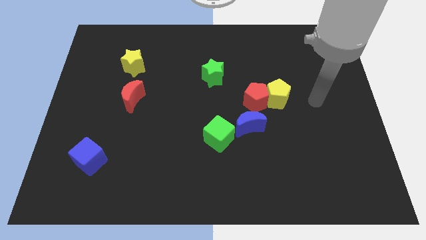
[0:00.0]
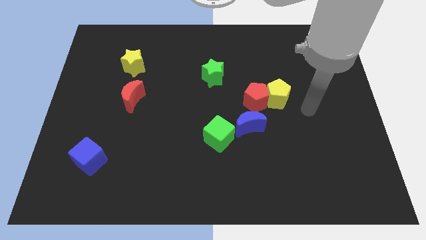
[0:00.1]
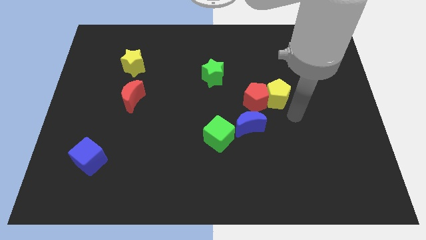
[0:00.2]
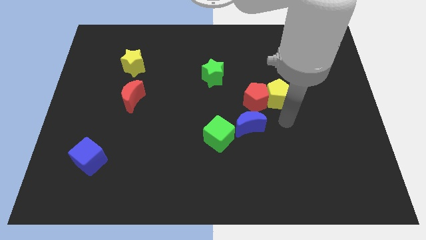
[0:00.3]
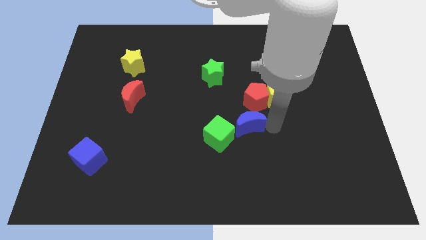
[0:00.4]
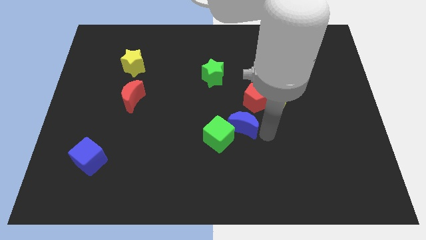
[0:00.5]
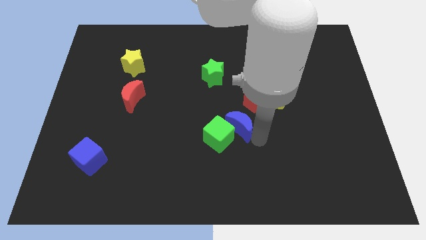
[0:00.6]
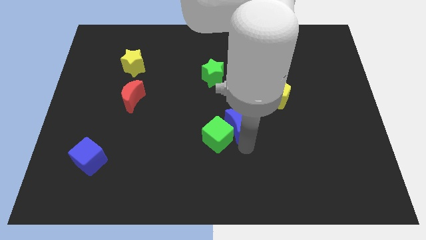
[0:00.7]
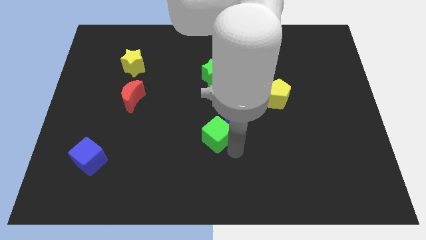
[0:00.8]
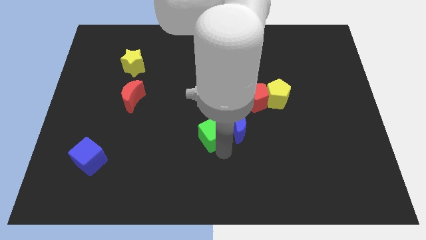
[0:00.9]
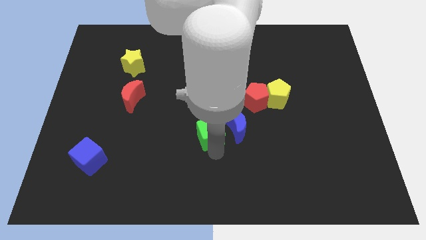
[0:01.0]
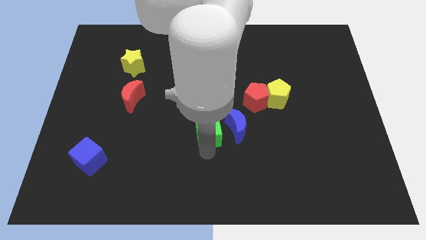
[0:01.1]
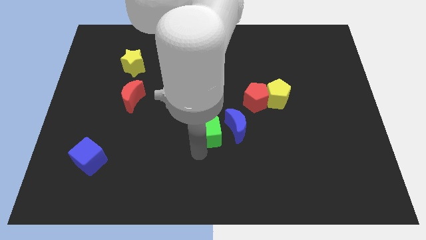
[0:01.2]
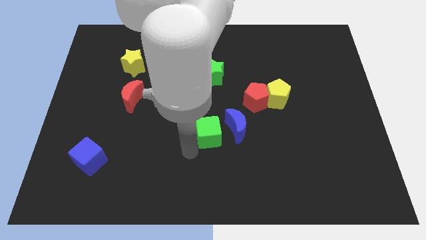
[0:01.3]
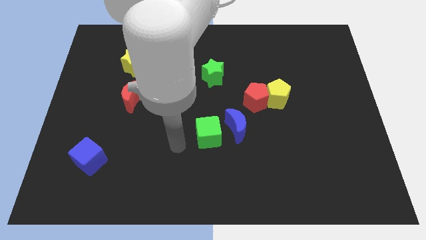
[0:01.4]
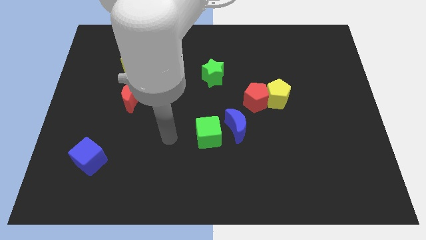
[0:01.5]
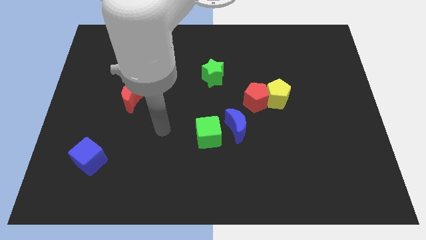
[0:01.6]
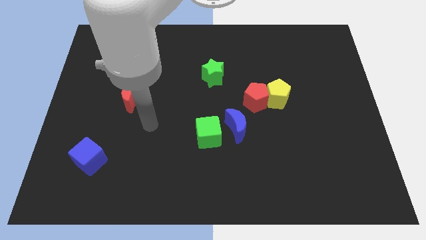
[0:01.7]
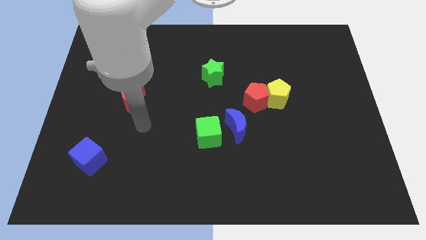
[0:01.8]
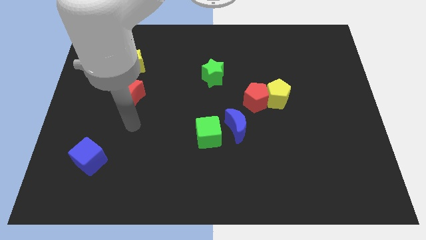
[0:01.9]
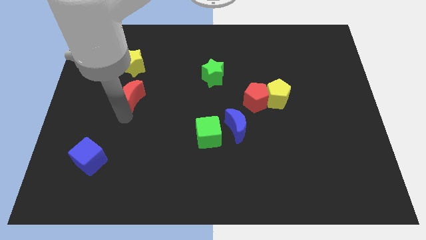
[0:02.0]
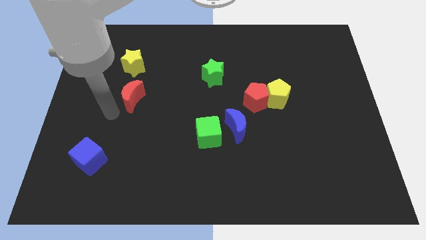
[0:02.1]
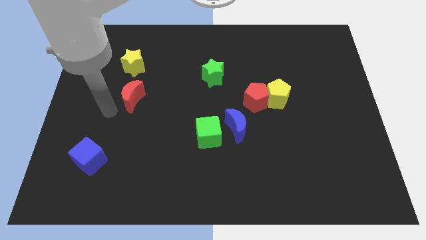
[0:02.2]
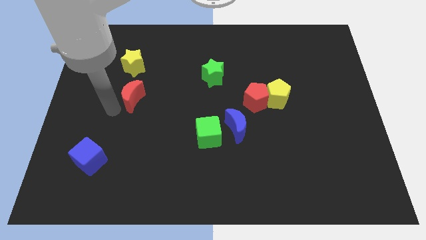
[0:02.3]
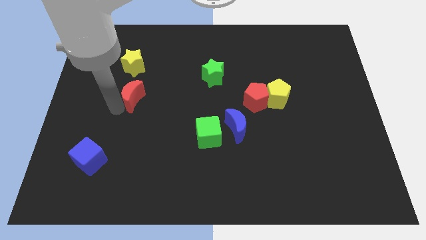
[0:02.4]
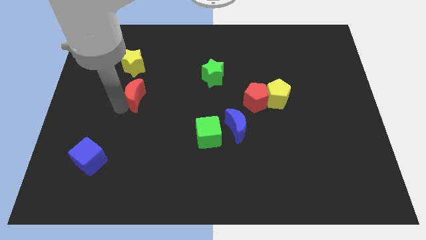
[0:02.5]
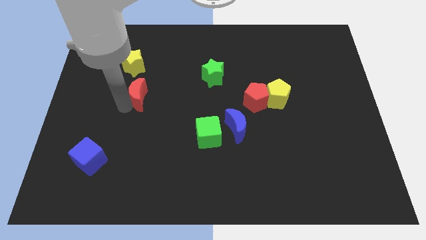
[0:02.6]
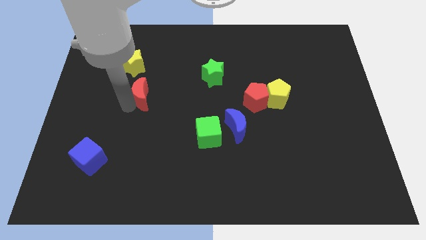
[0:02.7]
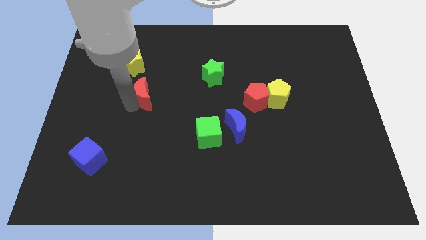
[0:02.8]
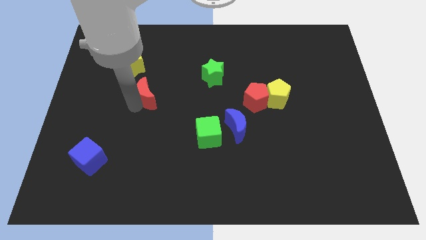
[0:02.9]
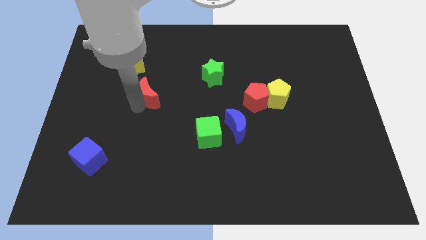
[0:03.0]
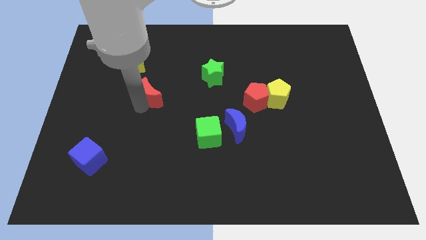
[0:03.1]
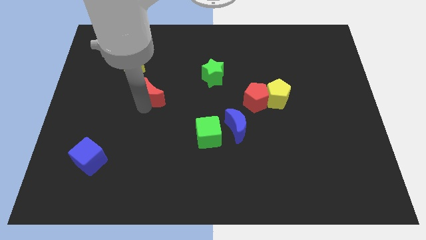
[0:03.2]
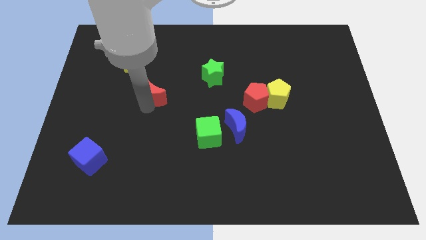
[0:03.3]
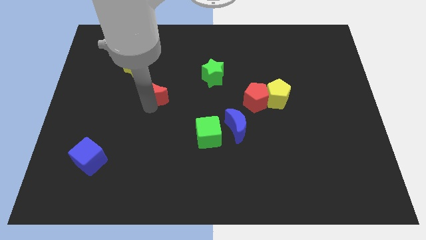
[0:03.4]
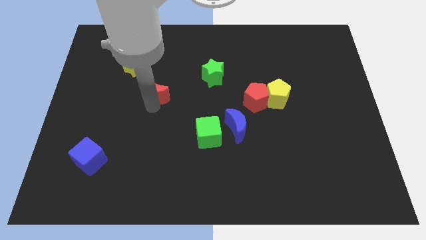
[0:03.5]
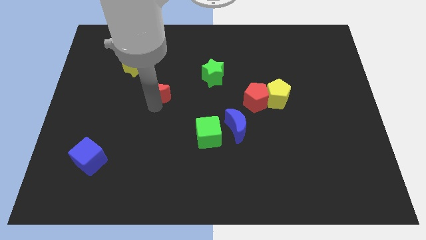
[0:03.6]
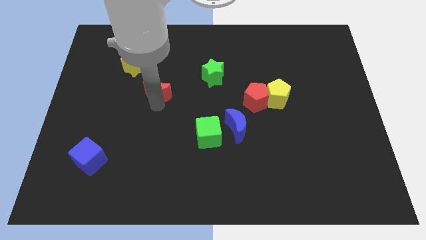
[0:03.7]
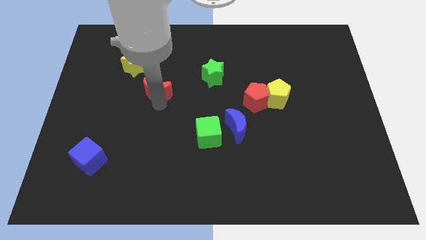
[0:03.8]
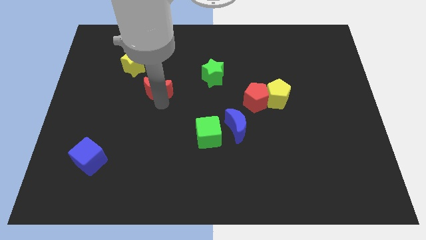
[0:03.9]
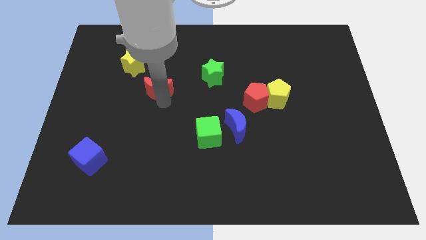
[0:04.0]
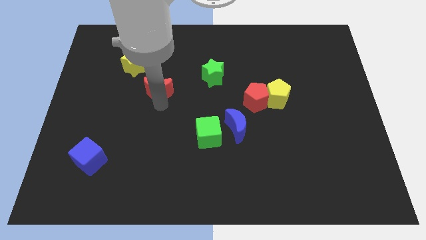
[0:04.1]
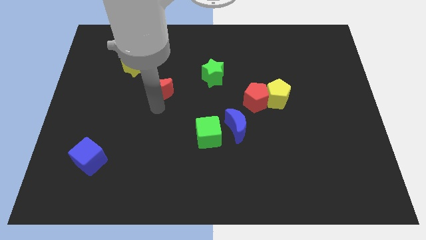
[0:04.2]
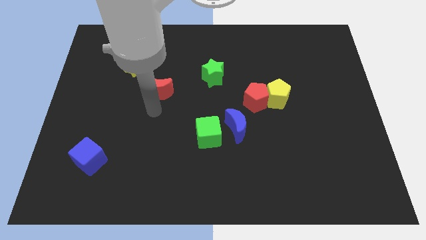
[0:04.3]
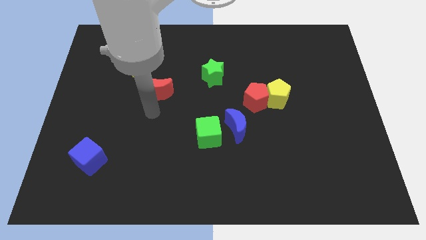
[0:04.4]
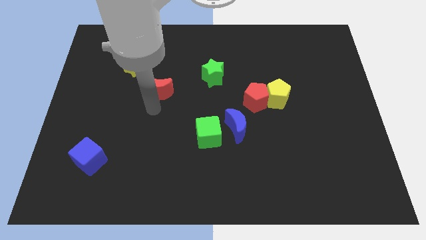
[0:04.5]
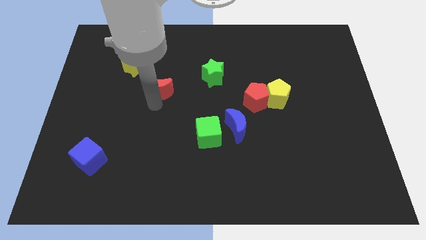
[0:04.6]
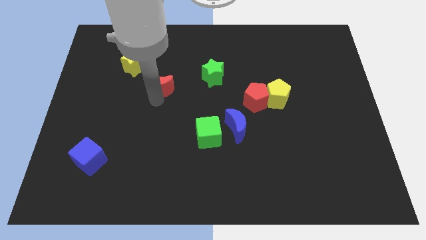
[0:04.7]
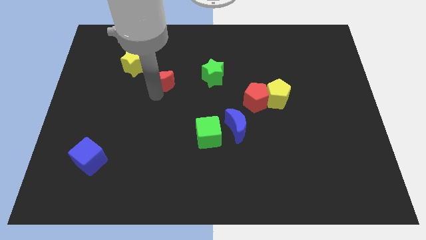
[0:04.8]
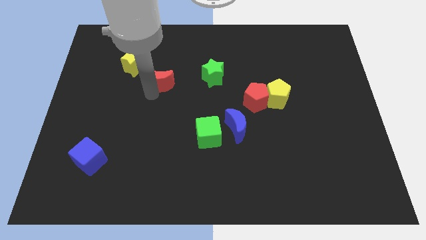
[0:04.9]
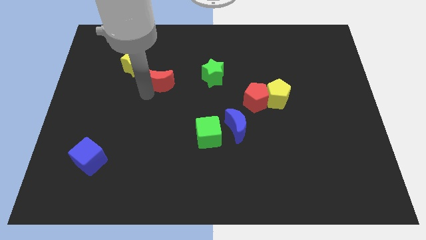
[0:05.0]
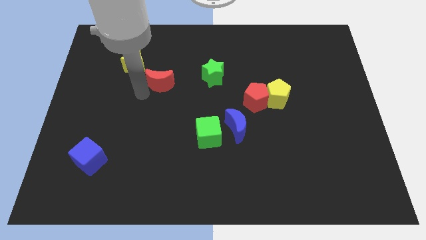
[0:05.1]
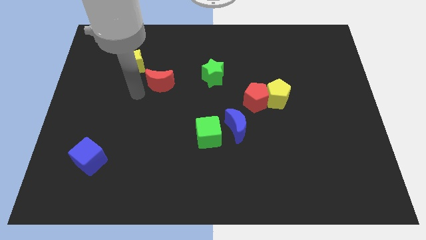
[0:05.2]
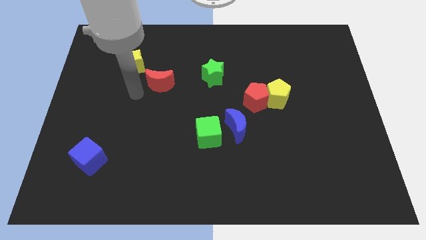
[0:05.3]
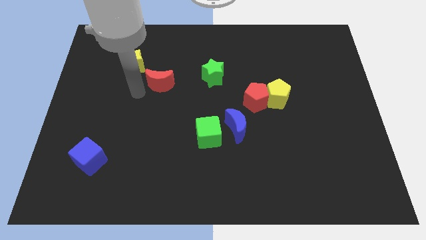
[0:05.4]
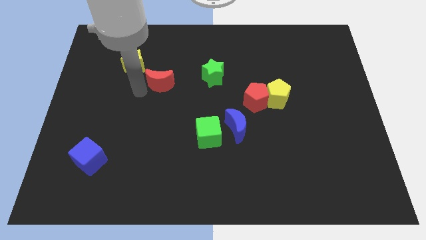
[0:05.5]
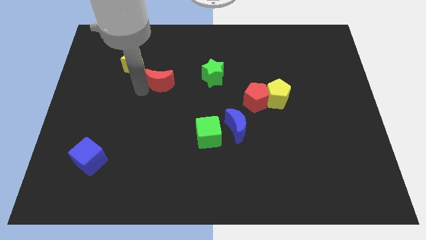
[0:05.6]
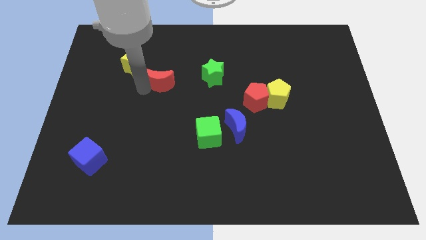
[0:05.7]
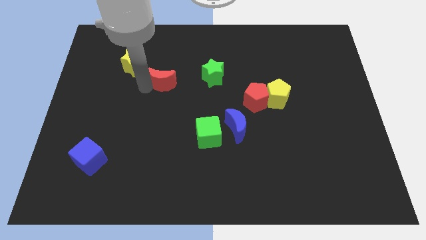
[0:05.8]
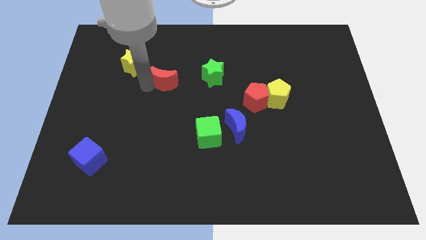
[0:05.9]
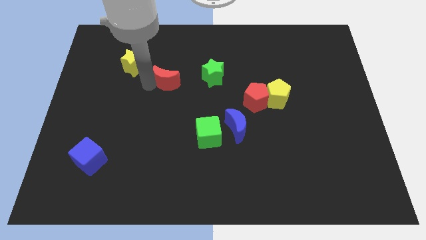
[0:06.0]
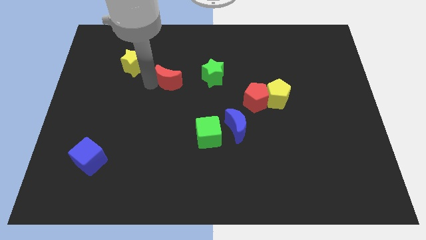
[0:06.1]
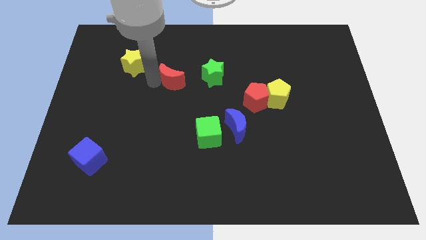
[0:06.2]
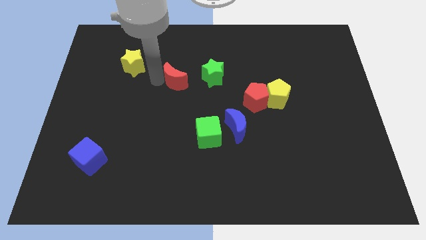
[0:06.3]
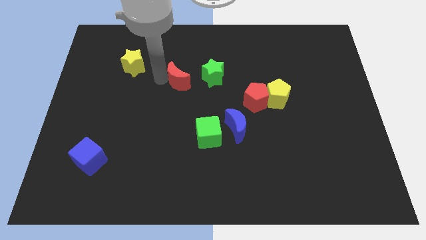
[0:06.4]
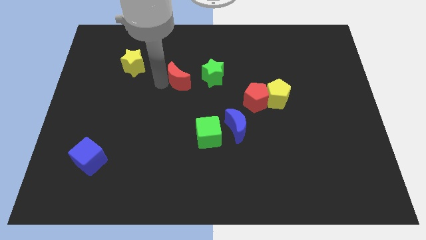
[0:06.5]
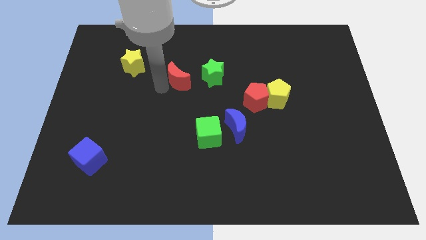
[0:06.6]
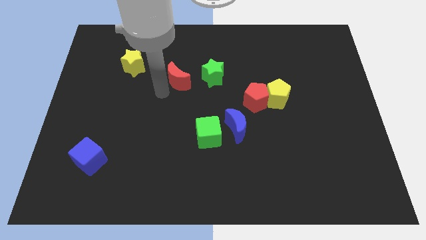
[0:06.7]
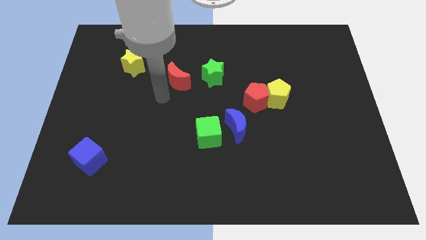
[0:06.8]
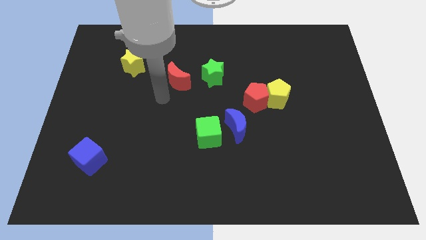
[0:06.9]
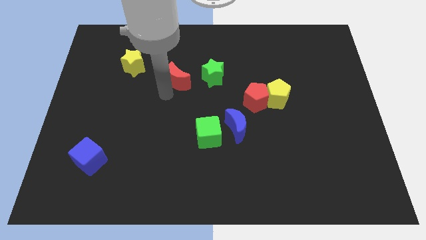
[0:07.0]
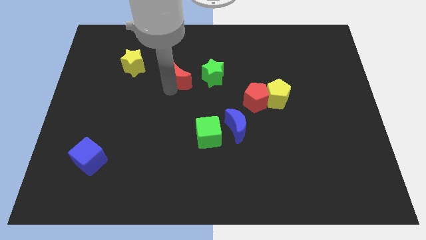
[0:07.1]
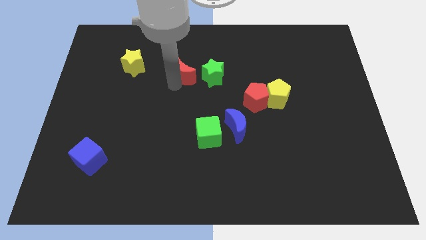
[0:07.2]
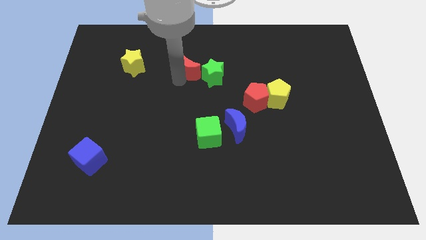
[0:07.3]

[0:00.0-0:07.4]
push the red moon diagonally up and to the left of the green star

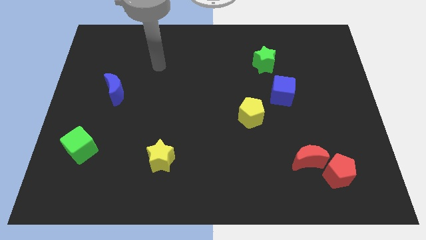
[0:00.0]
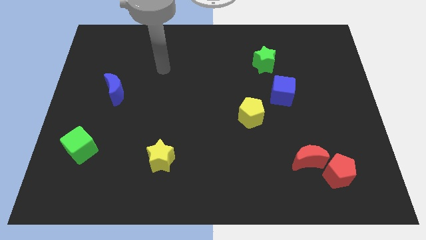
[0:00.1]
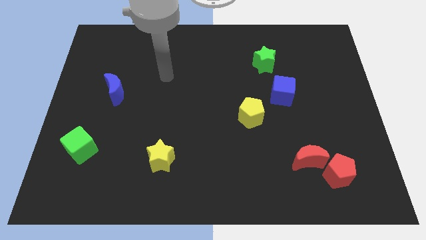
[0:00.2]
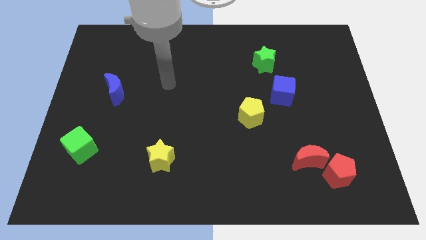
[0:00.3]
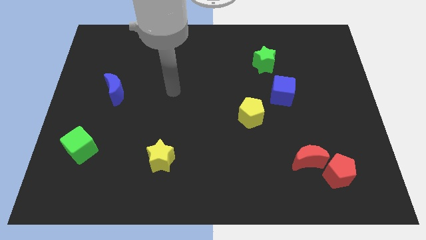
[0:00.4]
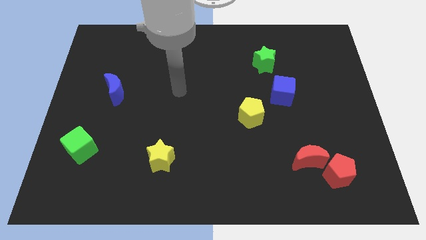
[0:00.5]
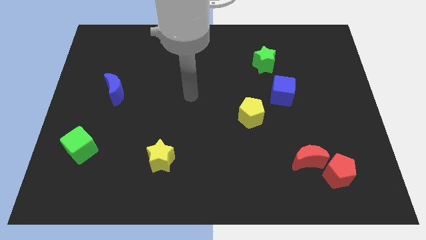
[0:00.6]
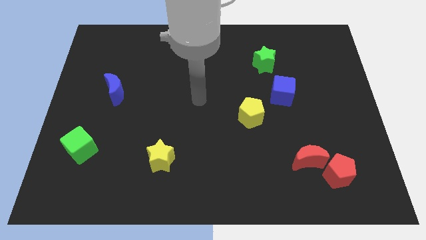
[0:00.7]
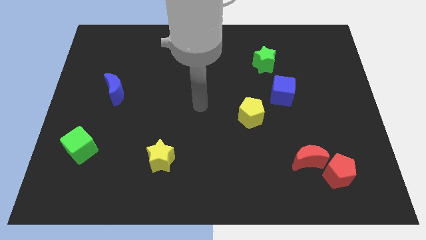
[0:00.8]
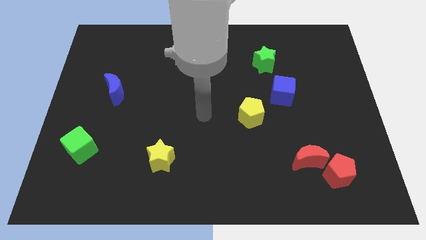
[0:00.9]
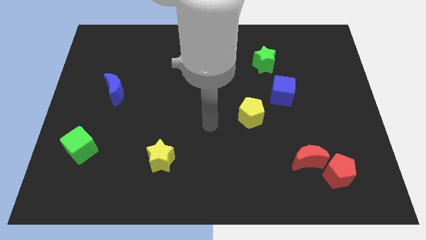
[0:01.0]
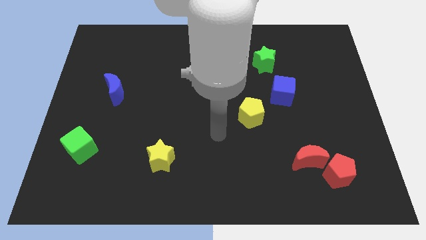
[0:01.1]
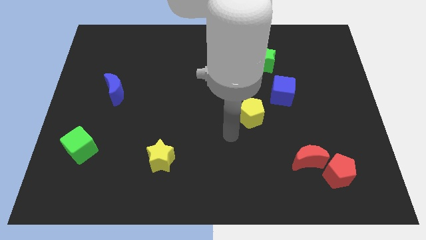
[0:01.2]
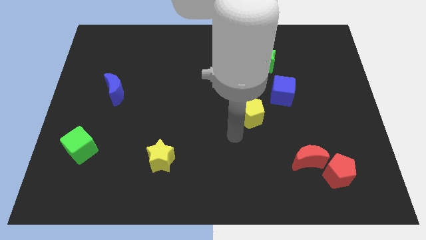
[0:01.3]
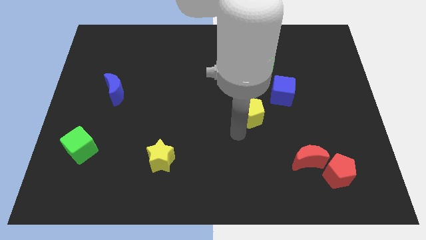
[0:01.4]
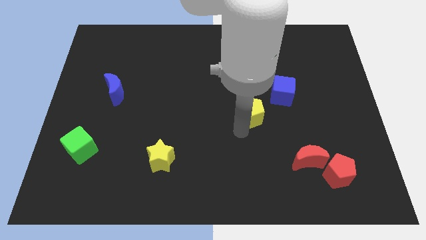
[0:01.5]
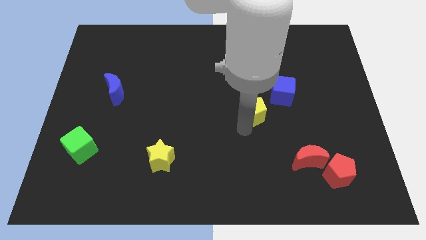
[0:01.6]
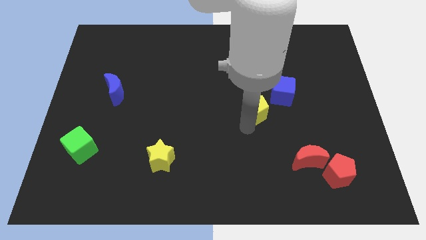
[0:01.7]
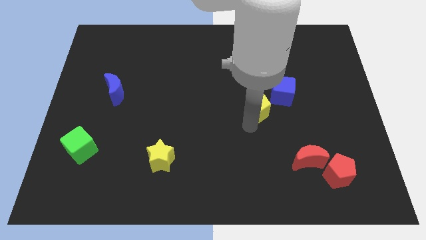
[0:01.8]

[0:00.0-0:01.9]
push the yellow pentagon below the green star
